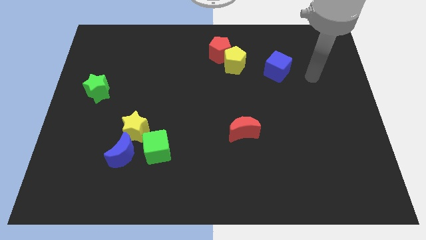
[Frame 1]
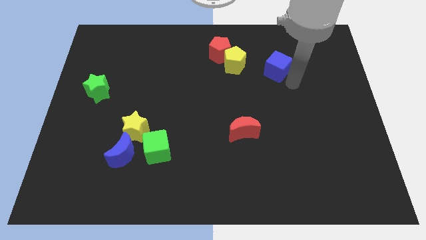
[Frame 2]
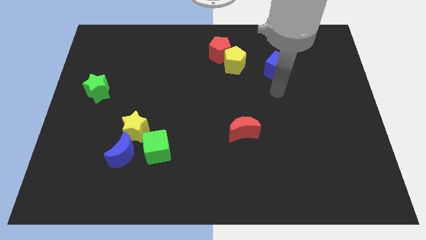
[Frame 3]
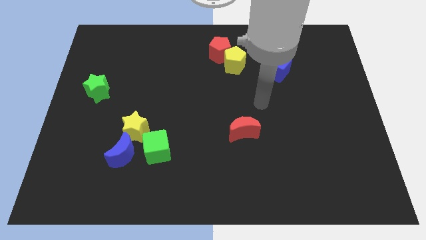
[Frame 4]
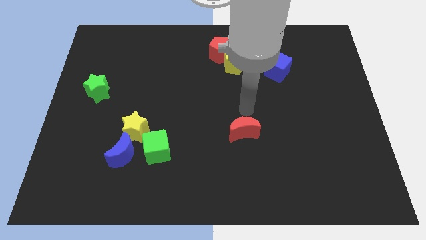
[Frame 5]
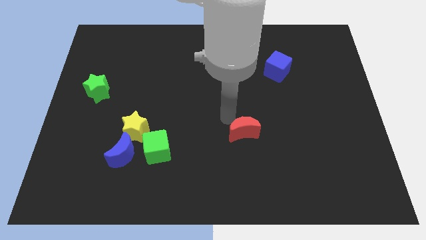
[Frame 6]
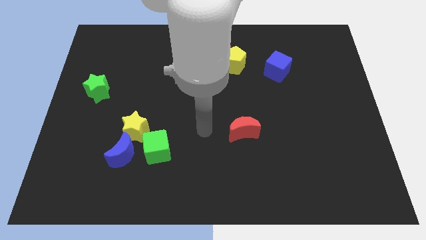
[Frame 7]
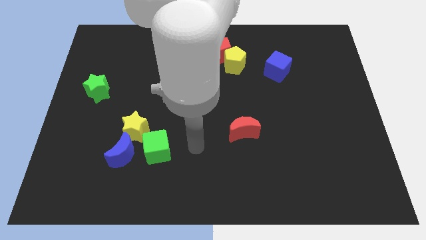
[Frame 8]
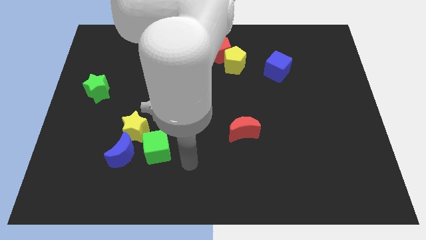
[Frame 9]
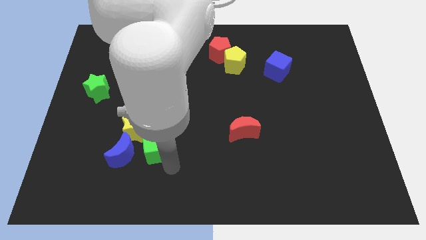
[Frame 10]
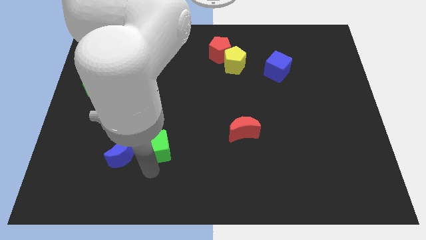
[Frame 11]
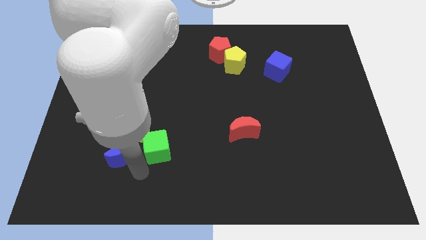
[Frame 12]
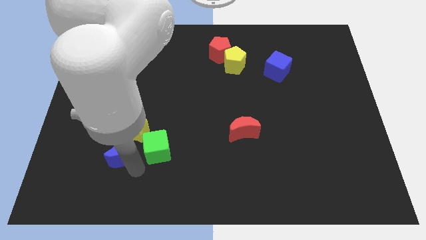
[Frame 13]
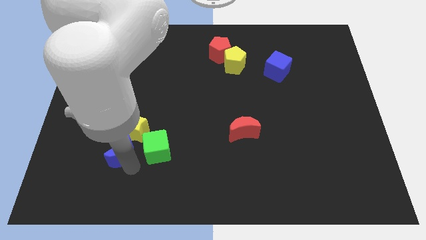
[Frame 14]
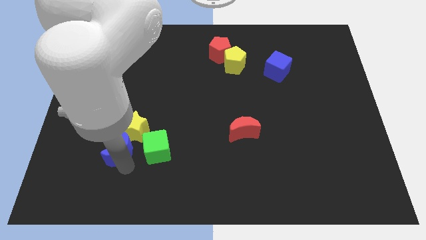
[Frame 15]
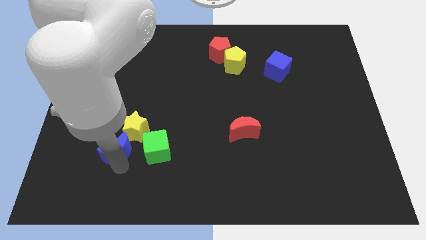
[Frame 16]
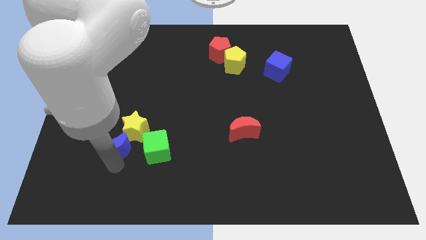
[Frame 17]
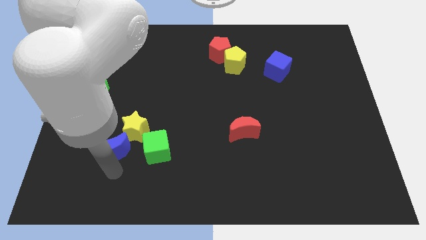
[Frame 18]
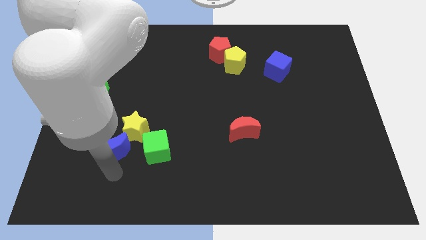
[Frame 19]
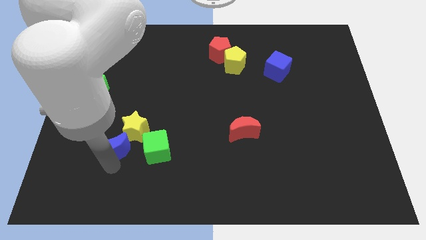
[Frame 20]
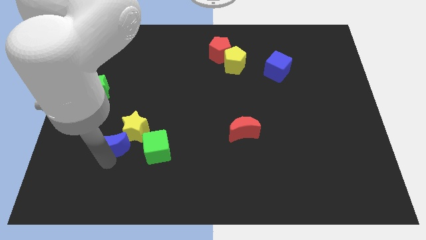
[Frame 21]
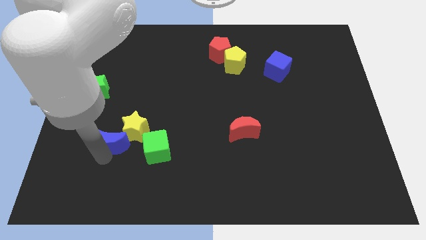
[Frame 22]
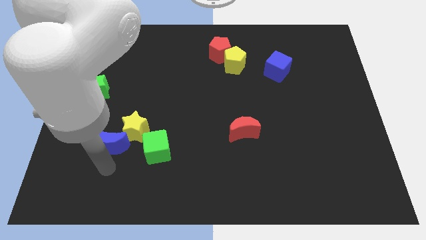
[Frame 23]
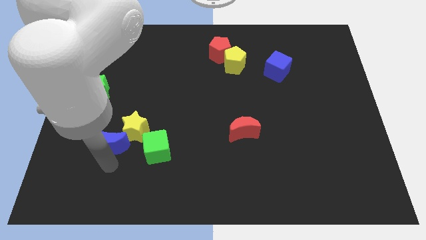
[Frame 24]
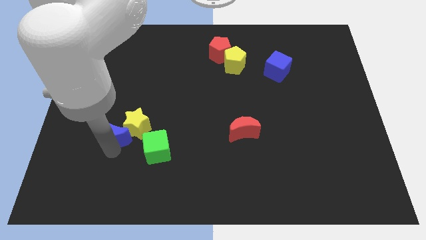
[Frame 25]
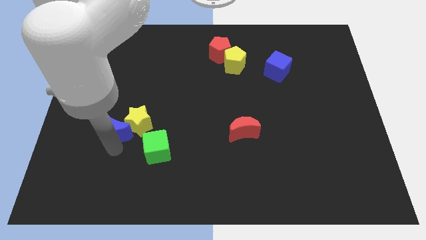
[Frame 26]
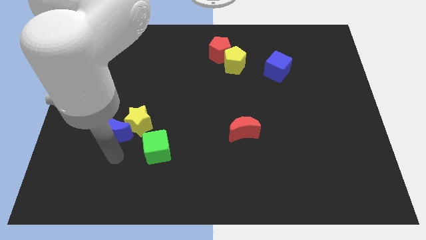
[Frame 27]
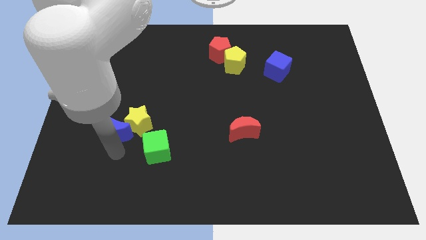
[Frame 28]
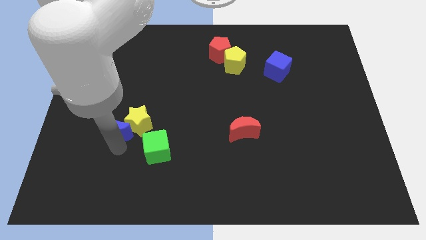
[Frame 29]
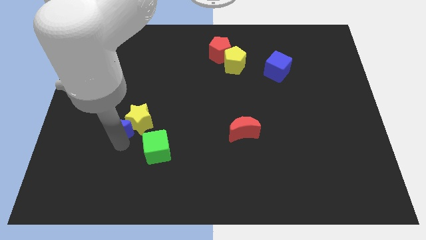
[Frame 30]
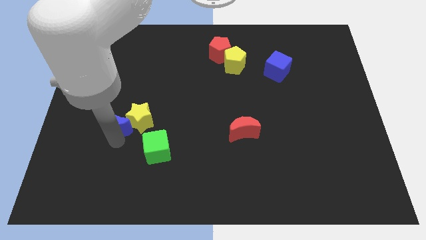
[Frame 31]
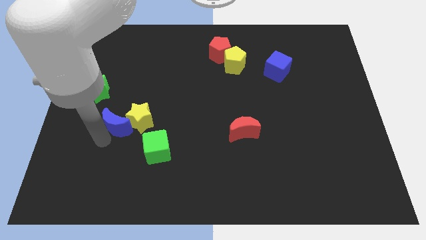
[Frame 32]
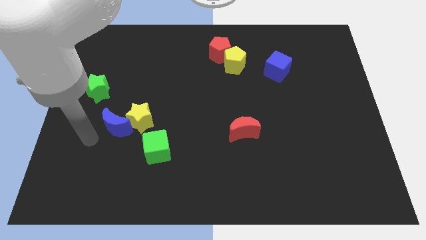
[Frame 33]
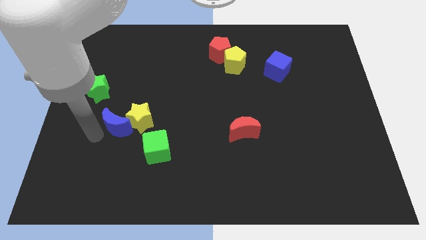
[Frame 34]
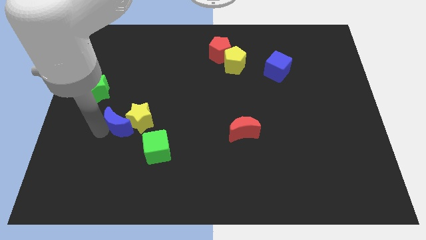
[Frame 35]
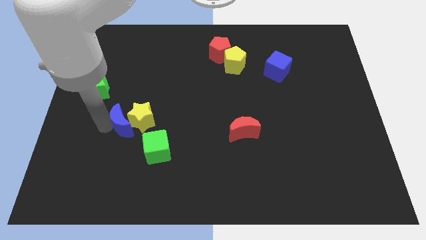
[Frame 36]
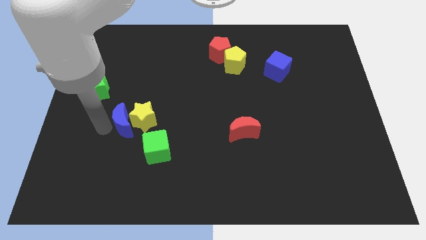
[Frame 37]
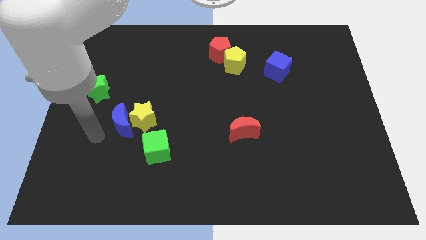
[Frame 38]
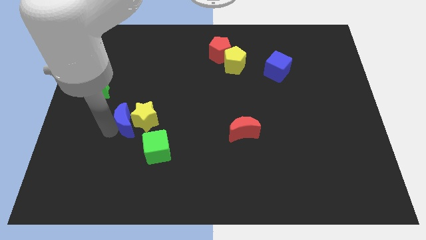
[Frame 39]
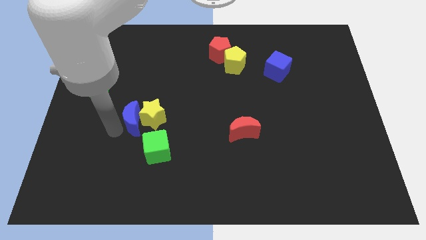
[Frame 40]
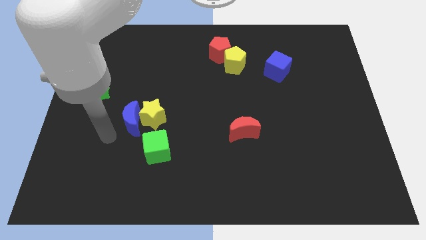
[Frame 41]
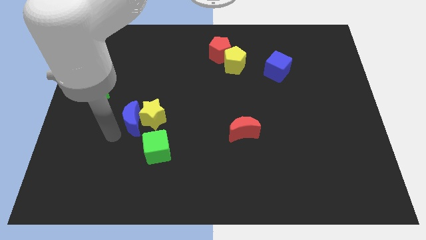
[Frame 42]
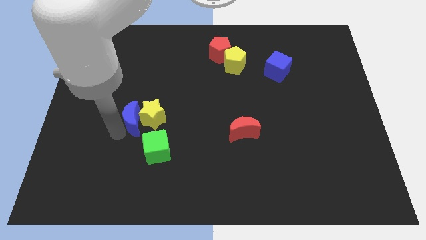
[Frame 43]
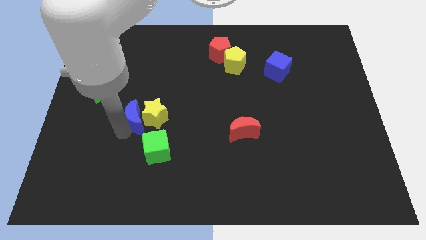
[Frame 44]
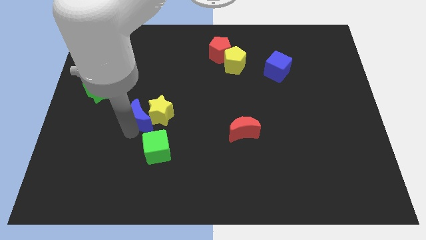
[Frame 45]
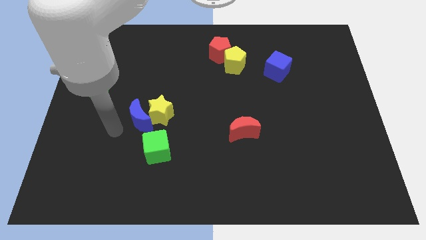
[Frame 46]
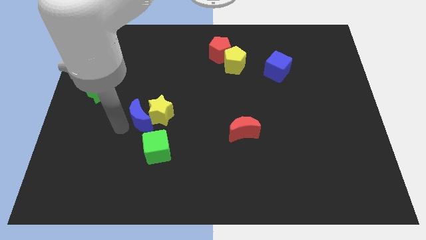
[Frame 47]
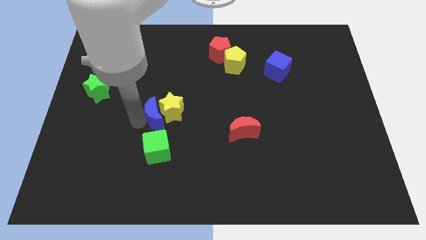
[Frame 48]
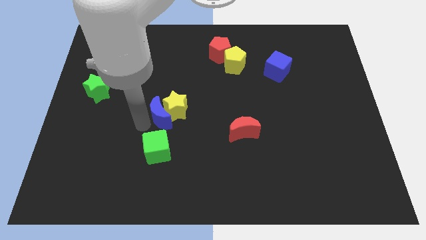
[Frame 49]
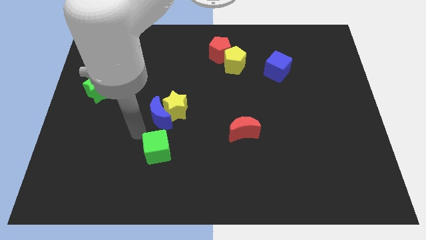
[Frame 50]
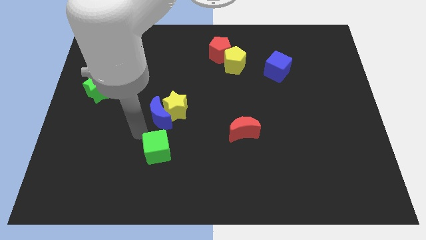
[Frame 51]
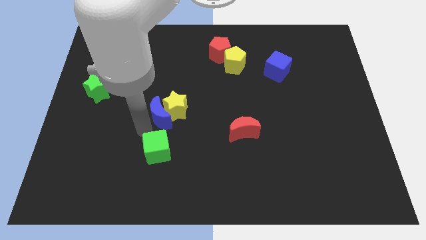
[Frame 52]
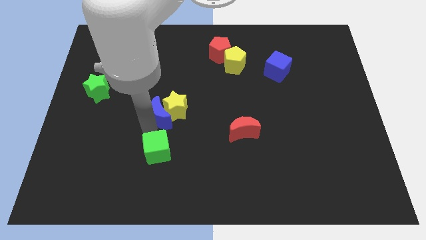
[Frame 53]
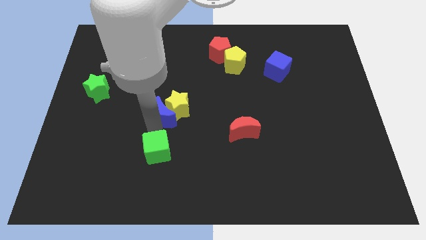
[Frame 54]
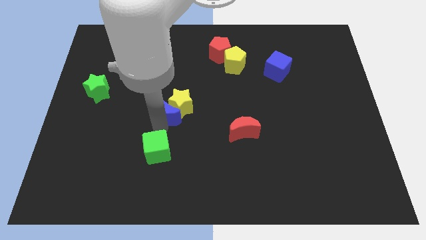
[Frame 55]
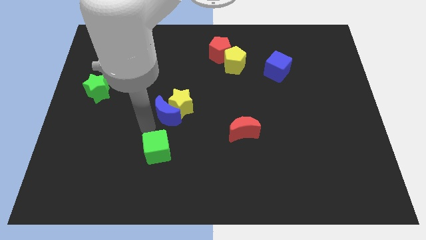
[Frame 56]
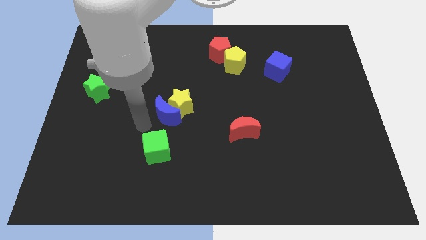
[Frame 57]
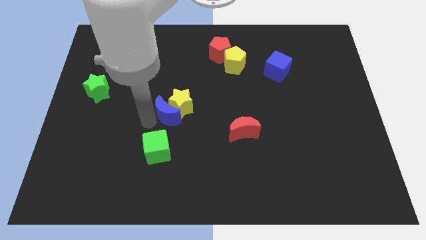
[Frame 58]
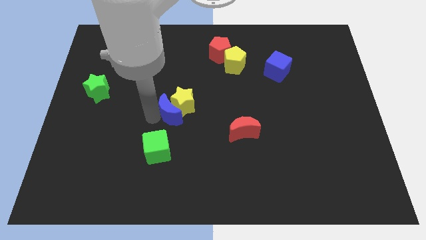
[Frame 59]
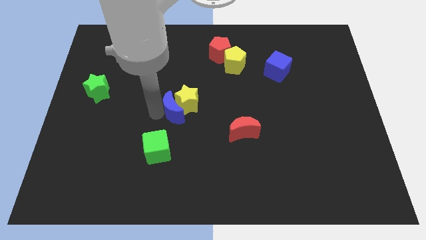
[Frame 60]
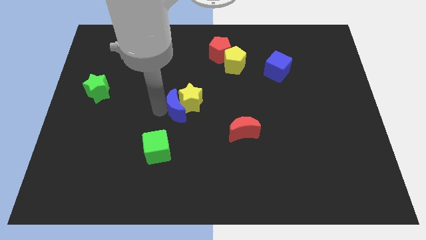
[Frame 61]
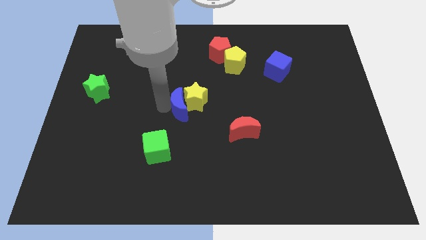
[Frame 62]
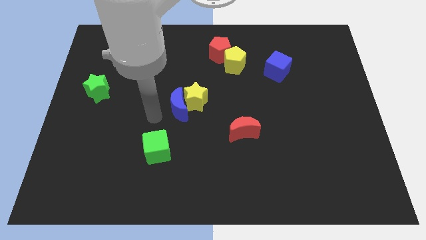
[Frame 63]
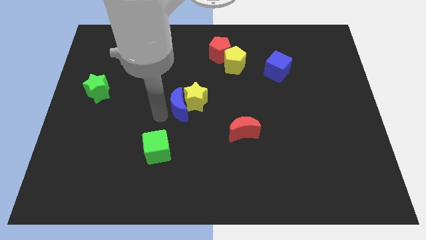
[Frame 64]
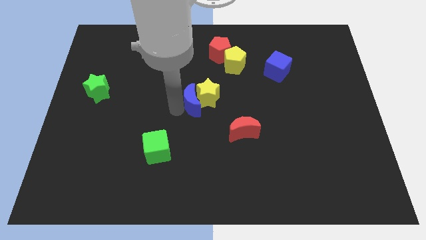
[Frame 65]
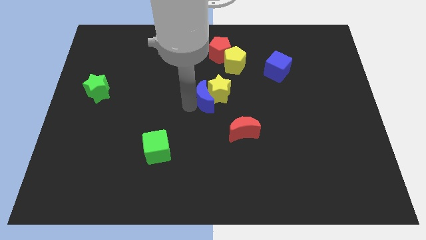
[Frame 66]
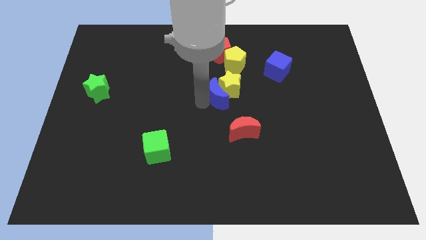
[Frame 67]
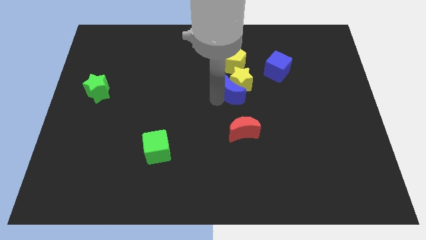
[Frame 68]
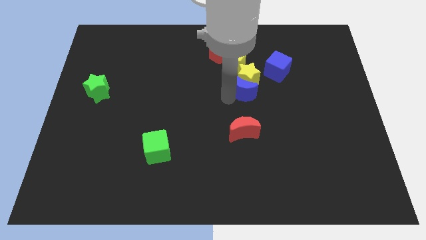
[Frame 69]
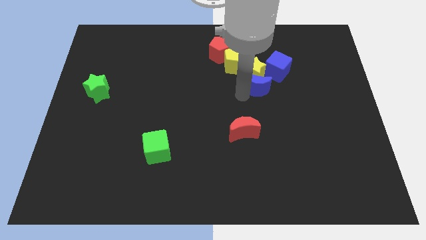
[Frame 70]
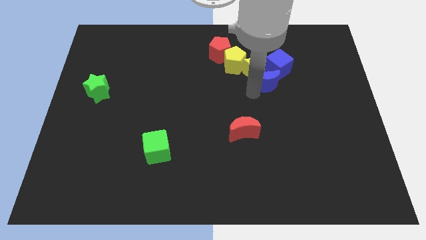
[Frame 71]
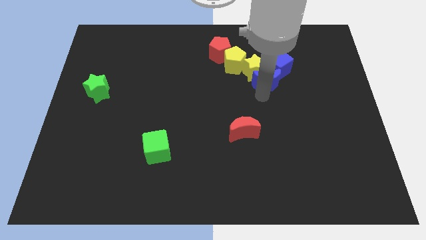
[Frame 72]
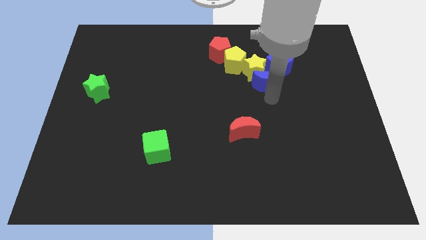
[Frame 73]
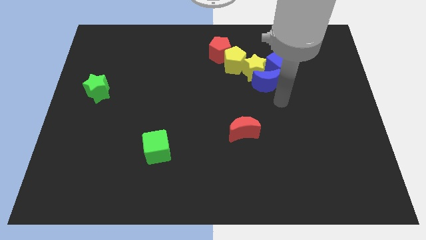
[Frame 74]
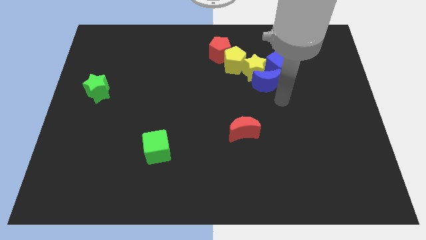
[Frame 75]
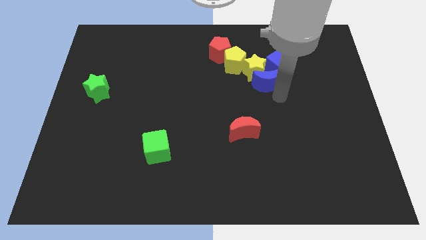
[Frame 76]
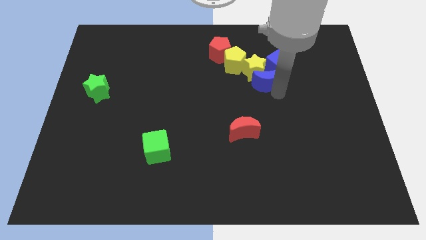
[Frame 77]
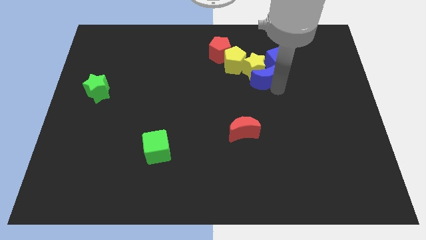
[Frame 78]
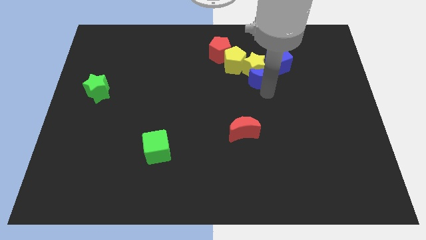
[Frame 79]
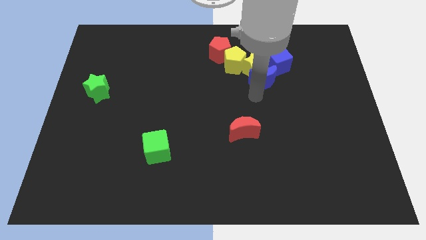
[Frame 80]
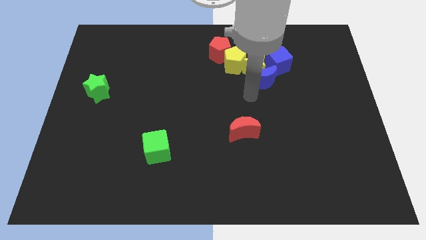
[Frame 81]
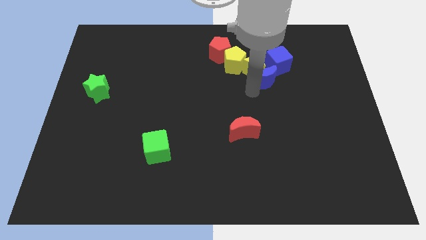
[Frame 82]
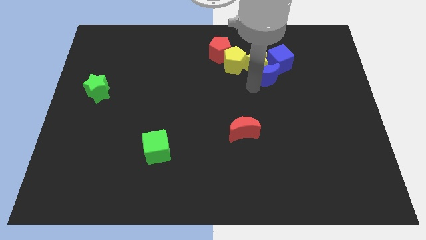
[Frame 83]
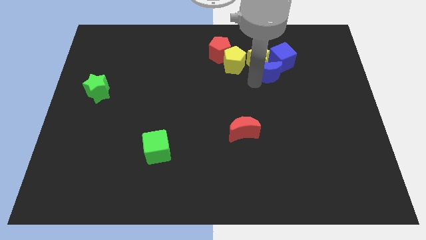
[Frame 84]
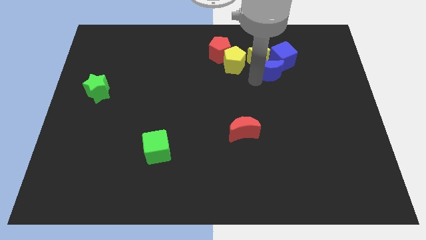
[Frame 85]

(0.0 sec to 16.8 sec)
slide the blue moon next to the blue cube
